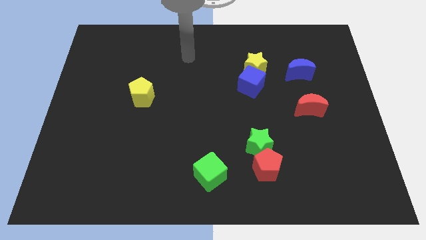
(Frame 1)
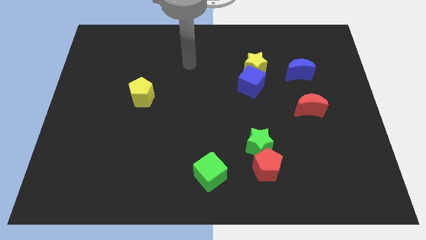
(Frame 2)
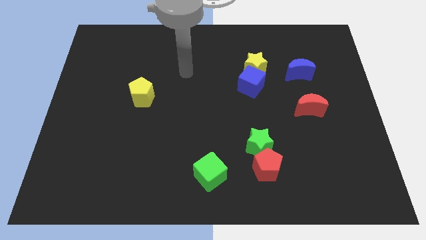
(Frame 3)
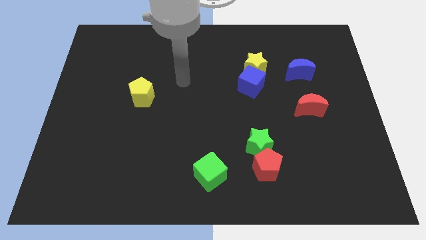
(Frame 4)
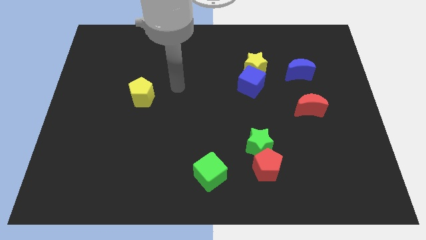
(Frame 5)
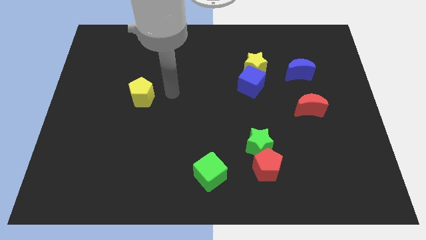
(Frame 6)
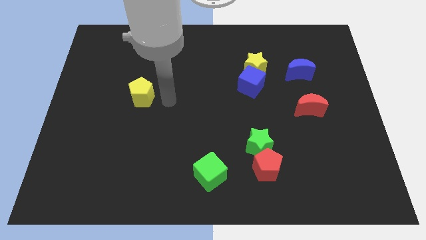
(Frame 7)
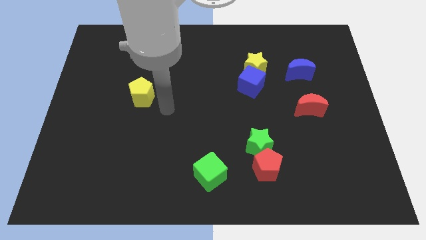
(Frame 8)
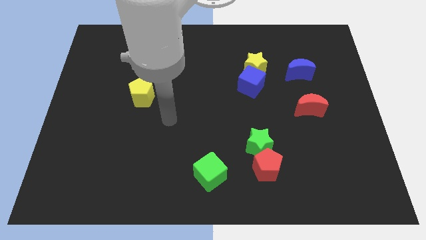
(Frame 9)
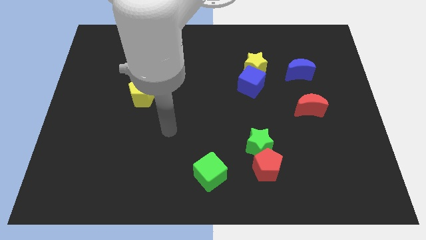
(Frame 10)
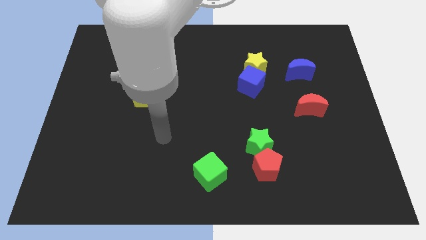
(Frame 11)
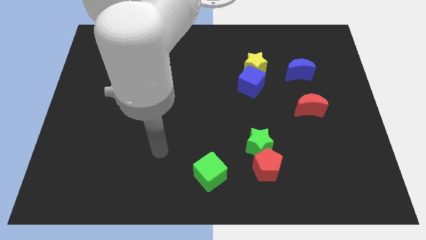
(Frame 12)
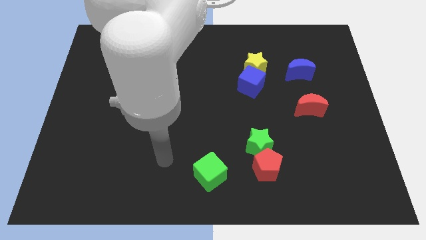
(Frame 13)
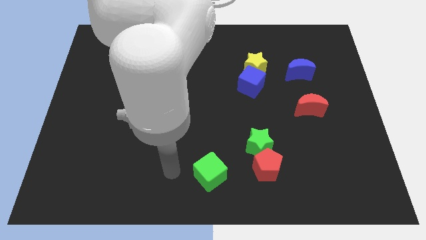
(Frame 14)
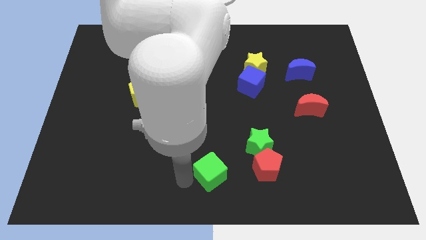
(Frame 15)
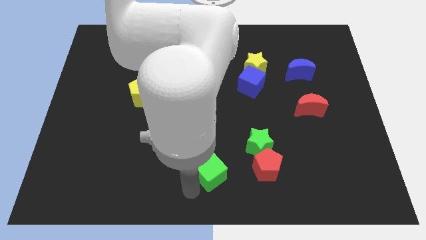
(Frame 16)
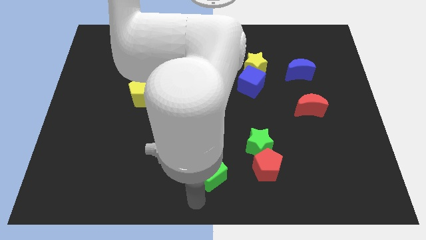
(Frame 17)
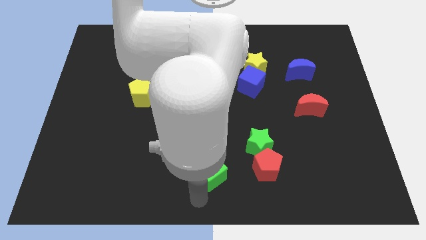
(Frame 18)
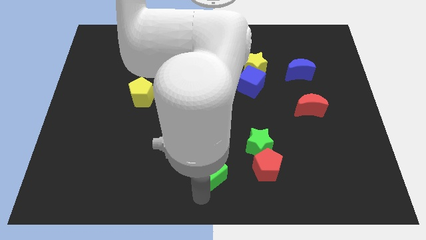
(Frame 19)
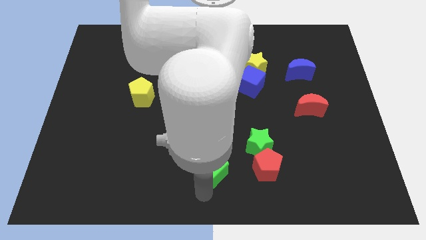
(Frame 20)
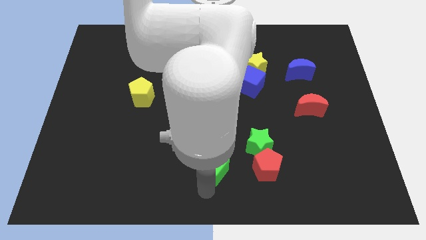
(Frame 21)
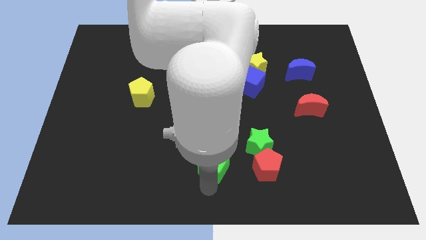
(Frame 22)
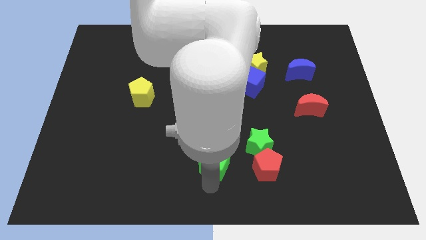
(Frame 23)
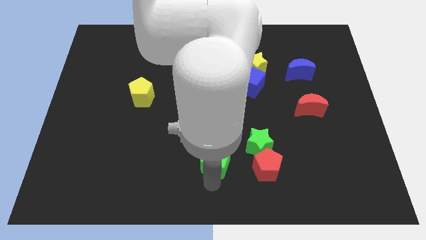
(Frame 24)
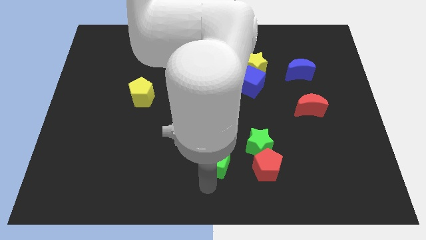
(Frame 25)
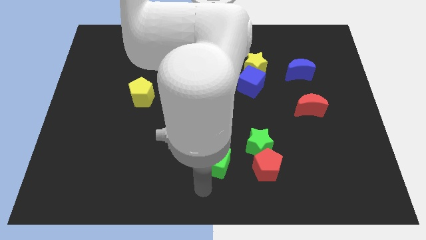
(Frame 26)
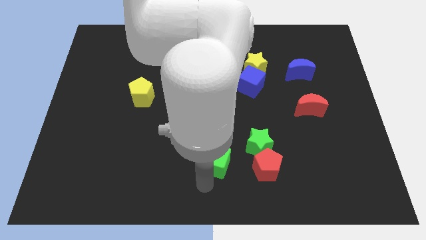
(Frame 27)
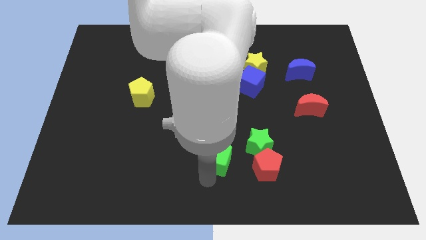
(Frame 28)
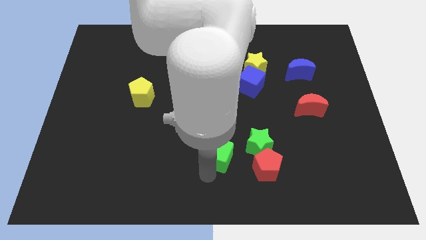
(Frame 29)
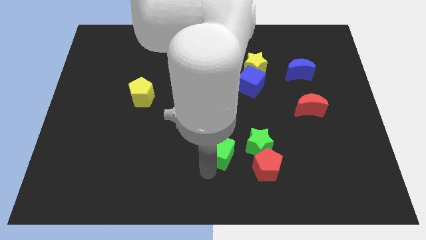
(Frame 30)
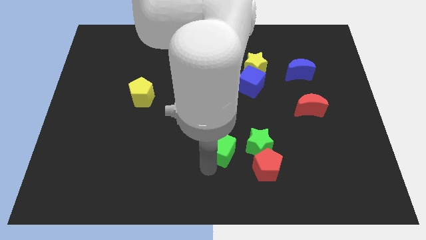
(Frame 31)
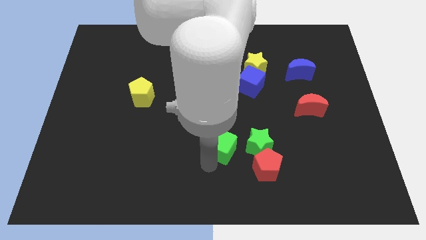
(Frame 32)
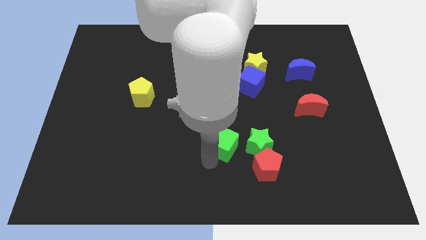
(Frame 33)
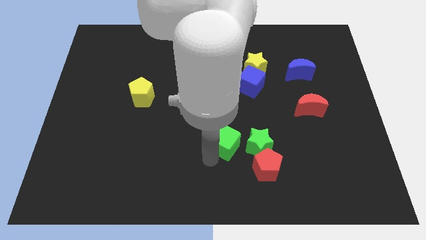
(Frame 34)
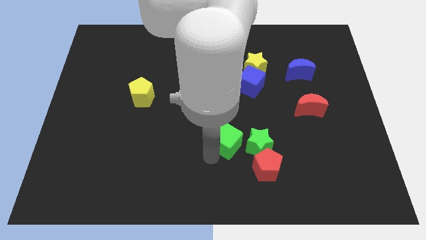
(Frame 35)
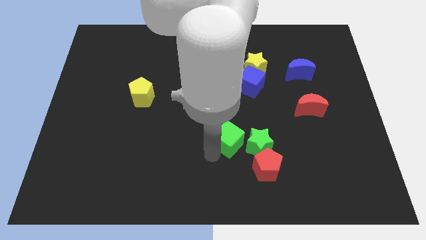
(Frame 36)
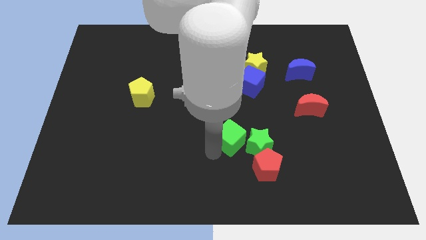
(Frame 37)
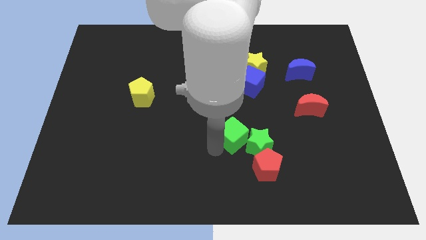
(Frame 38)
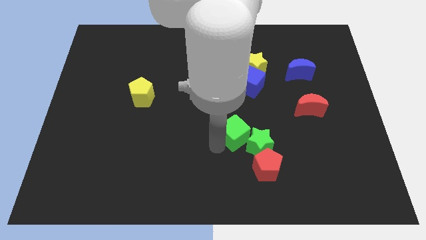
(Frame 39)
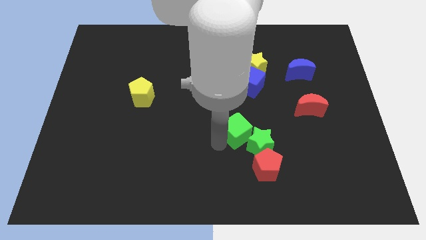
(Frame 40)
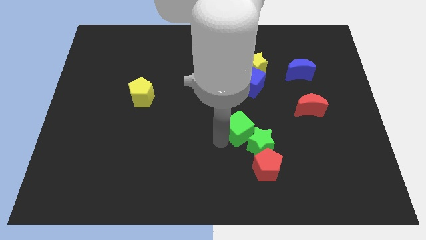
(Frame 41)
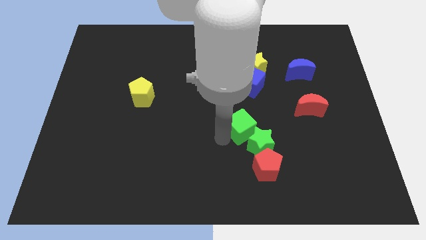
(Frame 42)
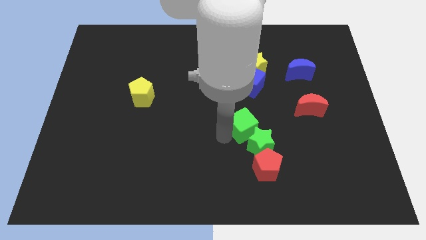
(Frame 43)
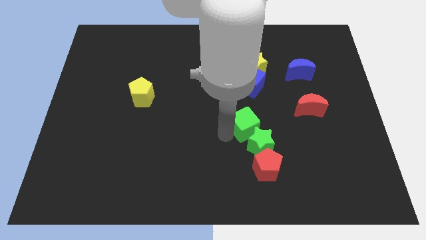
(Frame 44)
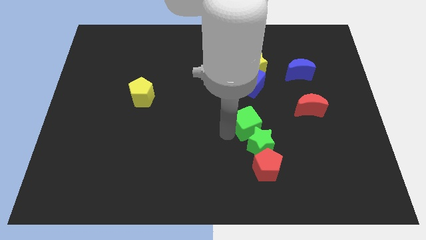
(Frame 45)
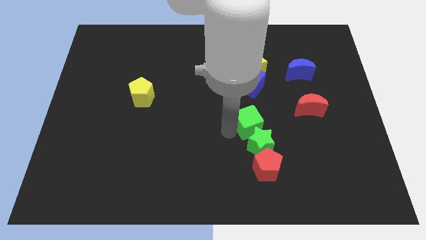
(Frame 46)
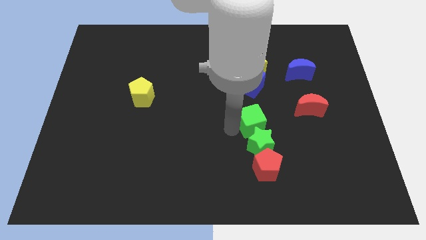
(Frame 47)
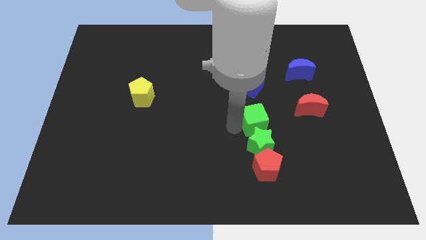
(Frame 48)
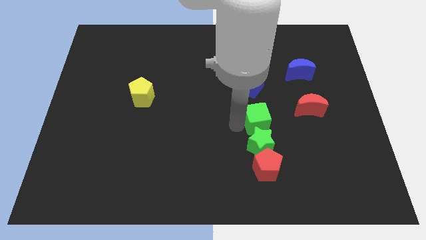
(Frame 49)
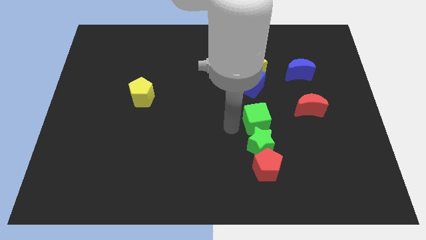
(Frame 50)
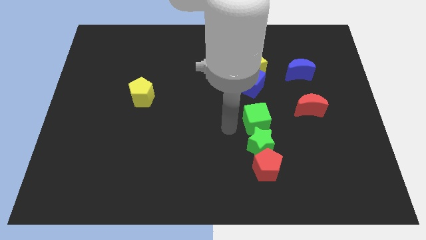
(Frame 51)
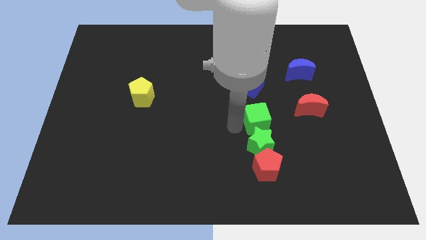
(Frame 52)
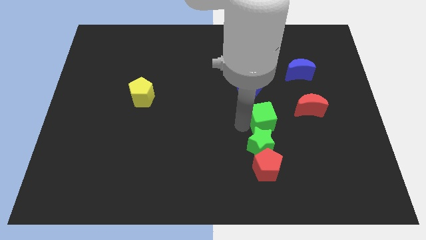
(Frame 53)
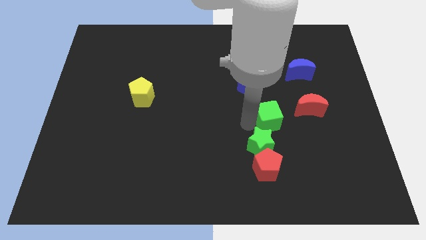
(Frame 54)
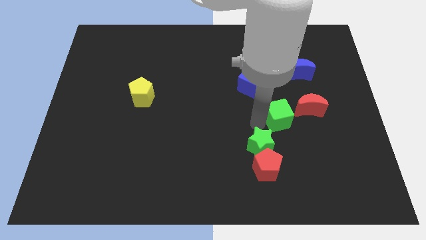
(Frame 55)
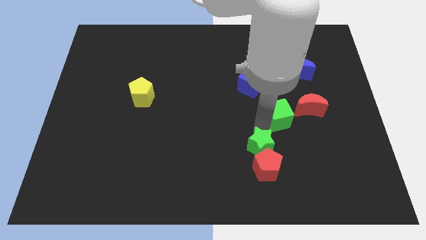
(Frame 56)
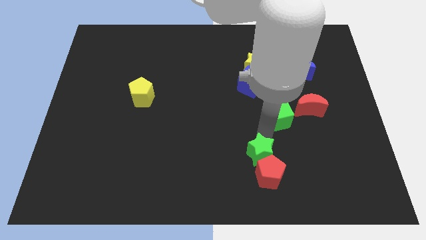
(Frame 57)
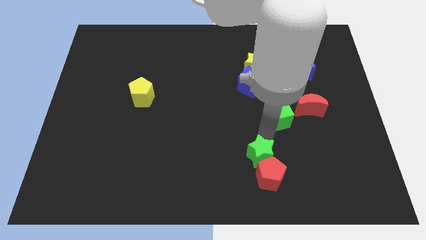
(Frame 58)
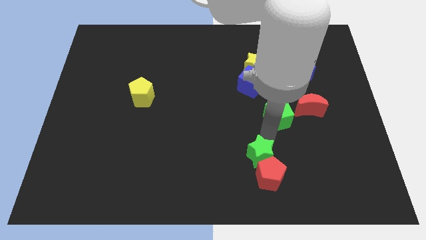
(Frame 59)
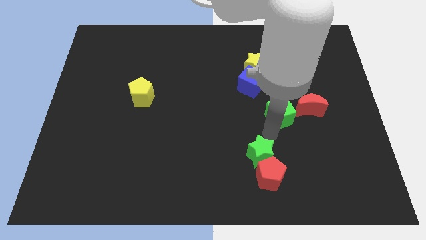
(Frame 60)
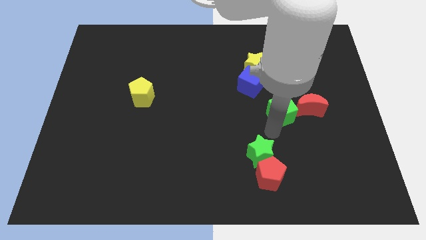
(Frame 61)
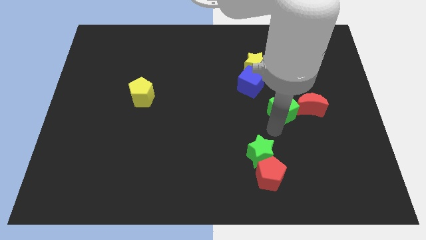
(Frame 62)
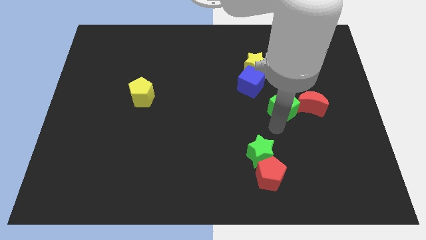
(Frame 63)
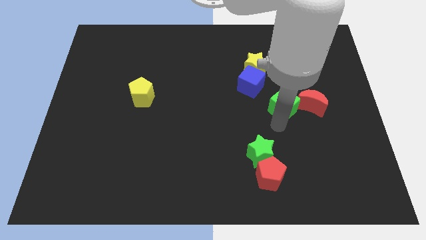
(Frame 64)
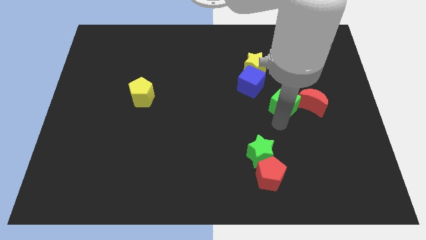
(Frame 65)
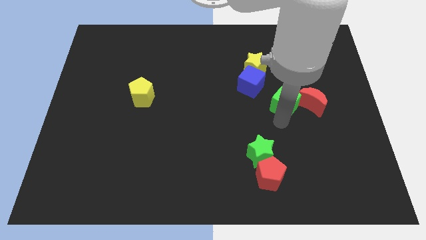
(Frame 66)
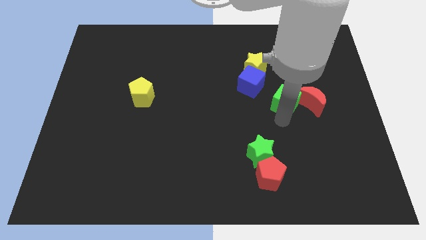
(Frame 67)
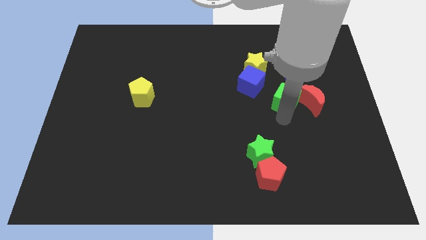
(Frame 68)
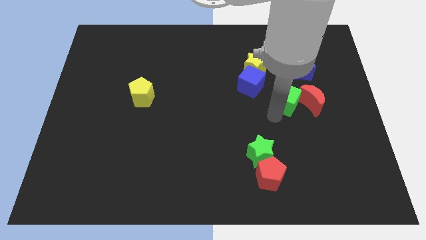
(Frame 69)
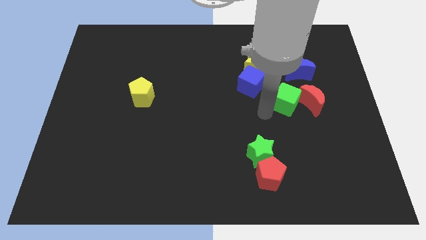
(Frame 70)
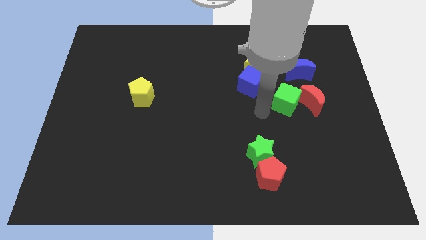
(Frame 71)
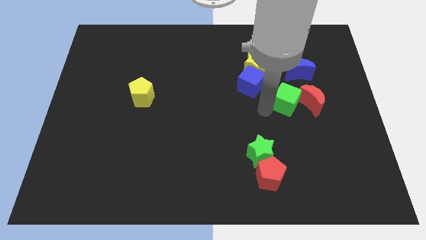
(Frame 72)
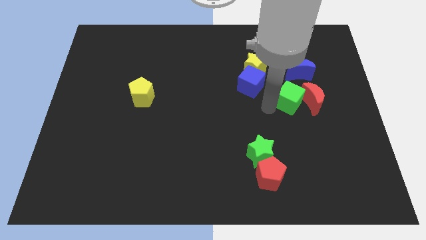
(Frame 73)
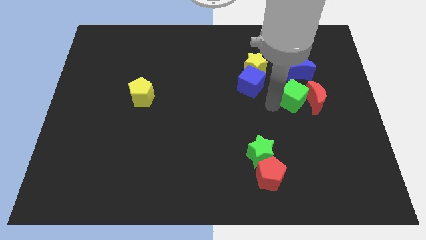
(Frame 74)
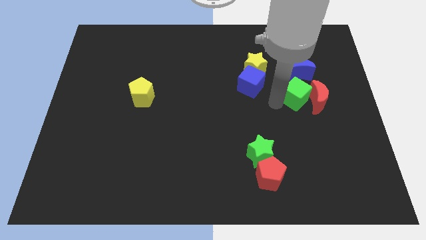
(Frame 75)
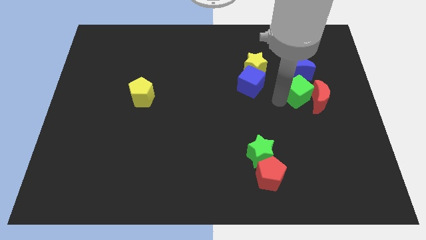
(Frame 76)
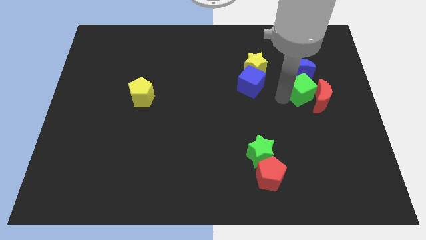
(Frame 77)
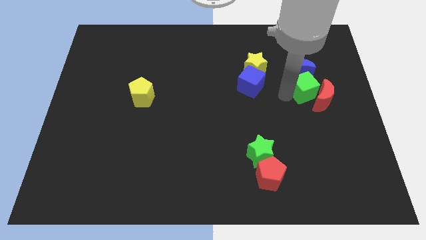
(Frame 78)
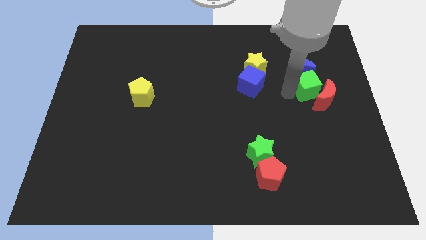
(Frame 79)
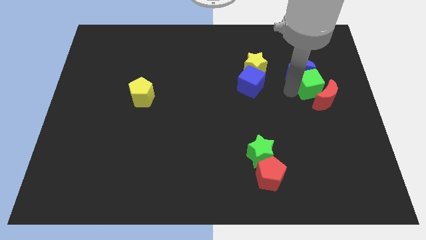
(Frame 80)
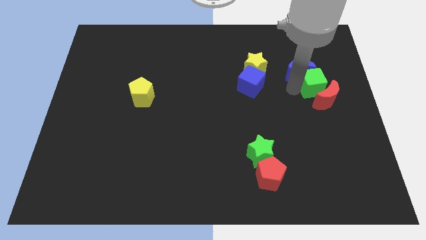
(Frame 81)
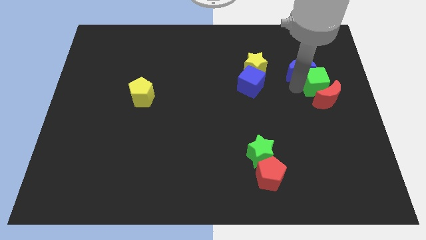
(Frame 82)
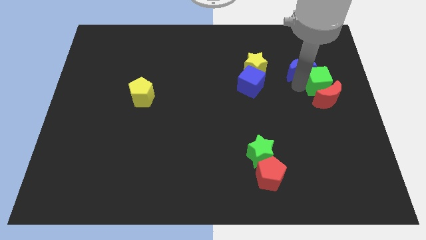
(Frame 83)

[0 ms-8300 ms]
put the green cube to the top right of the red moon
